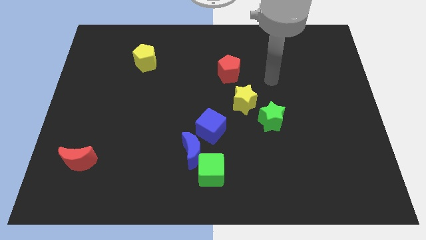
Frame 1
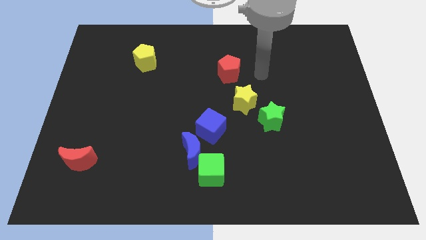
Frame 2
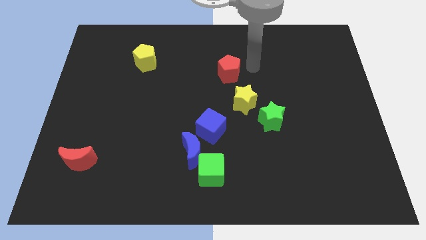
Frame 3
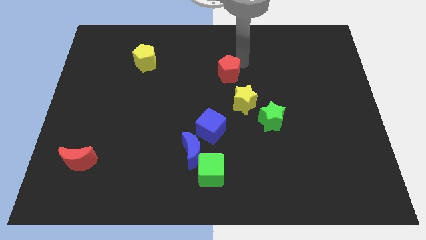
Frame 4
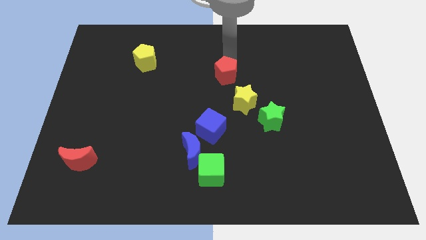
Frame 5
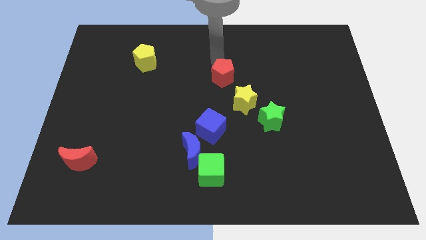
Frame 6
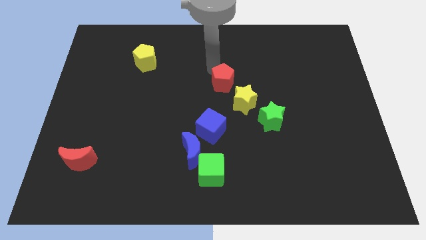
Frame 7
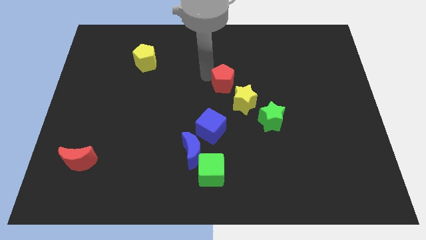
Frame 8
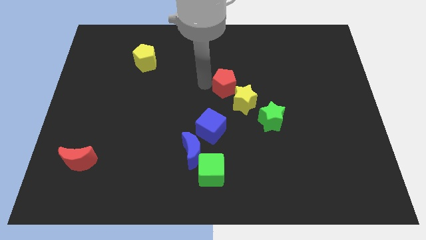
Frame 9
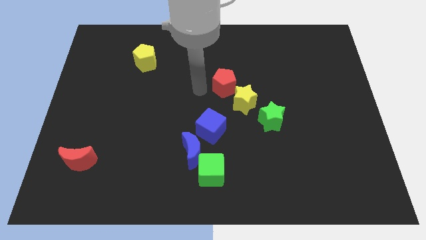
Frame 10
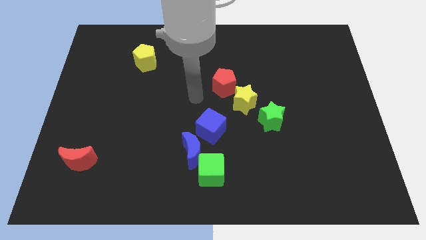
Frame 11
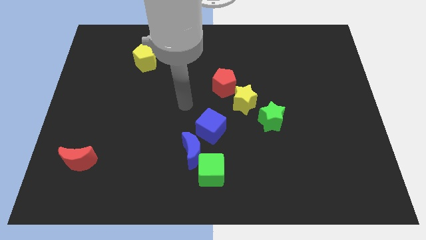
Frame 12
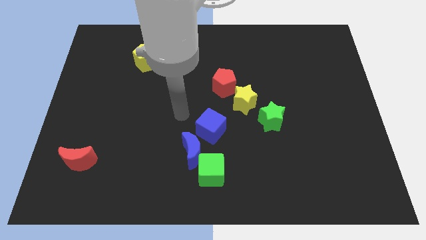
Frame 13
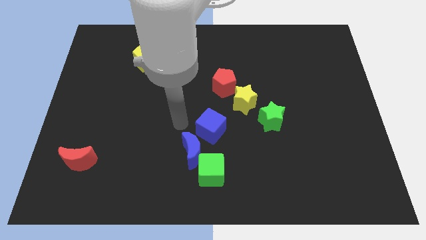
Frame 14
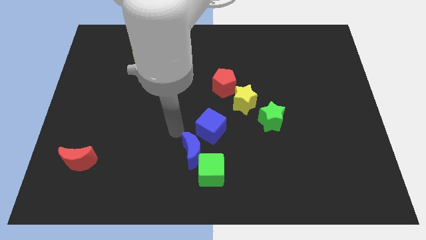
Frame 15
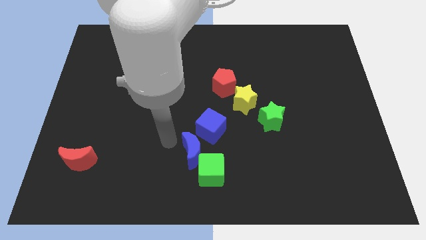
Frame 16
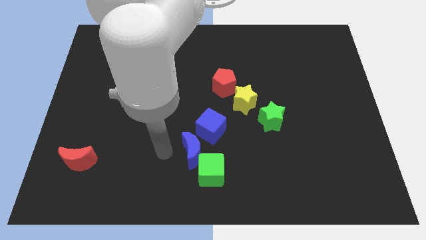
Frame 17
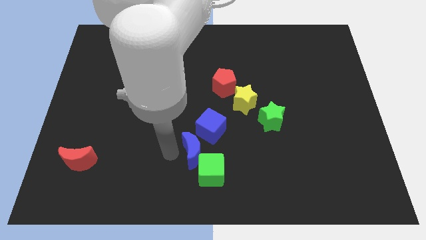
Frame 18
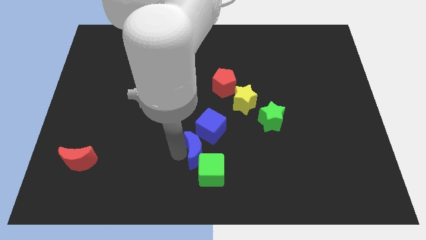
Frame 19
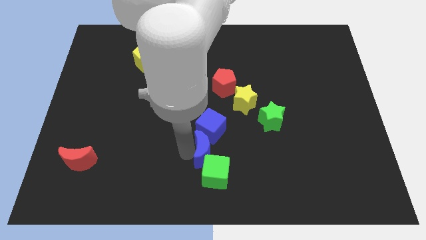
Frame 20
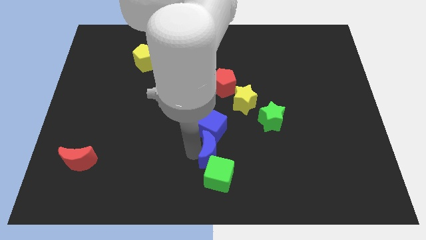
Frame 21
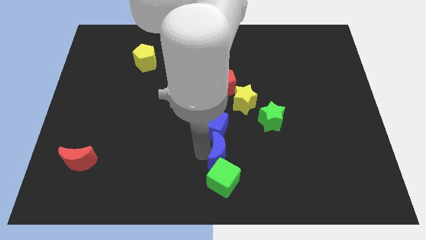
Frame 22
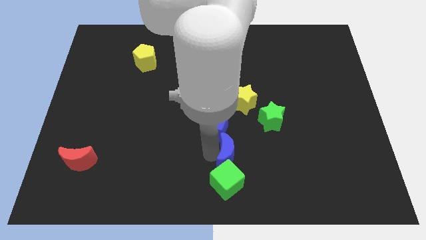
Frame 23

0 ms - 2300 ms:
move the blue moon right slightly

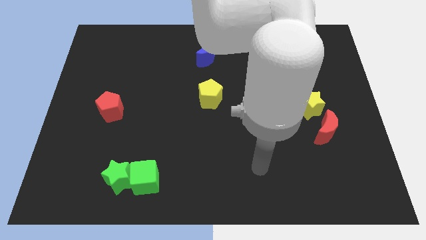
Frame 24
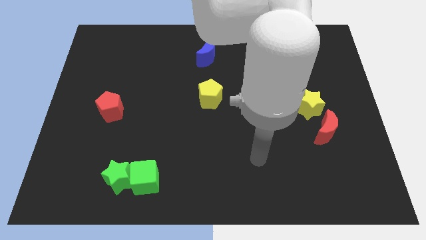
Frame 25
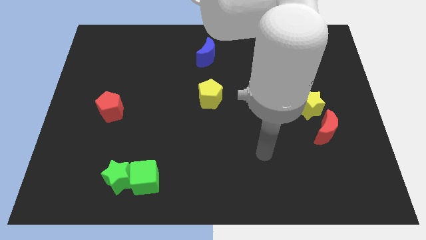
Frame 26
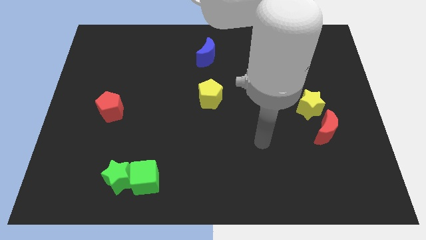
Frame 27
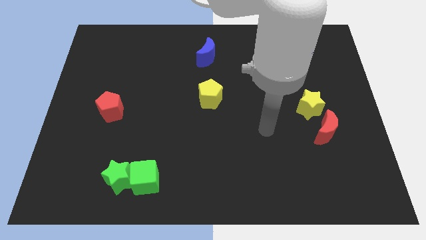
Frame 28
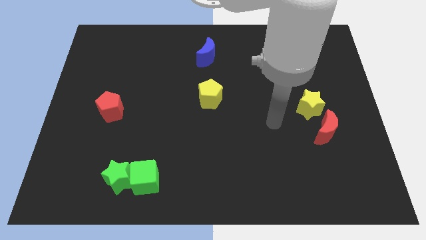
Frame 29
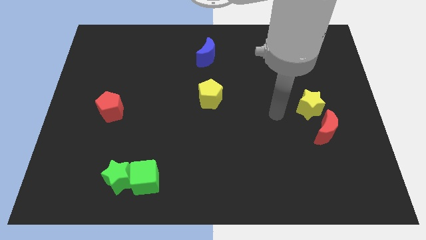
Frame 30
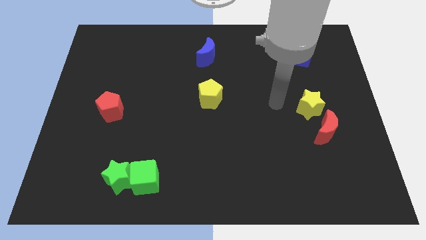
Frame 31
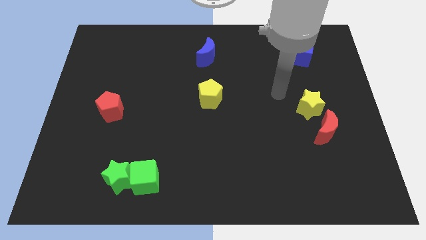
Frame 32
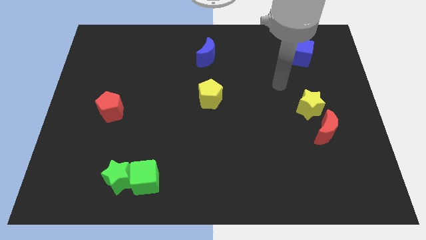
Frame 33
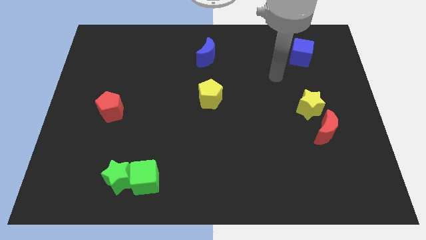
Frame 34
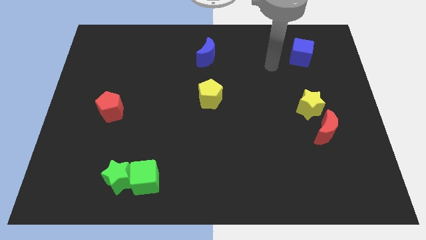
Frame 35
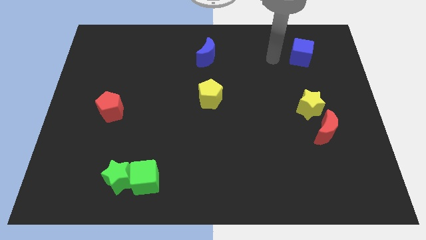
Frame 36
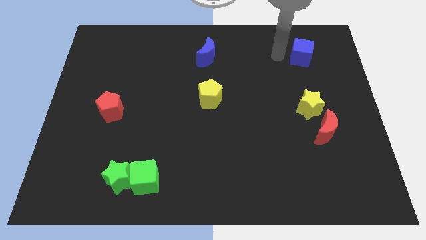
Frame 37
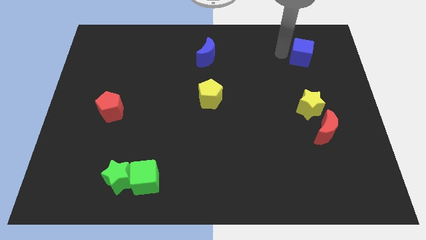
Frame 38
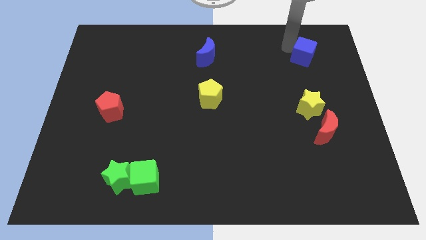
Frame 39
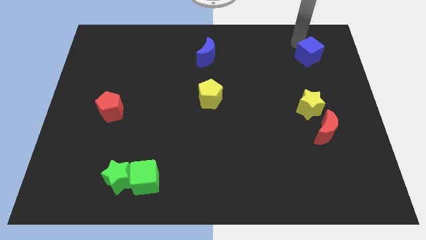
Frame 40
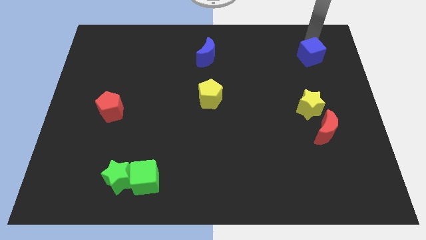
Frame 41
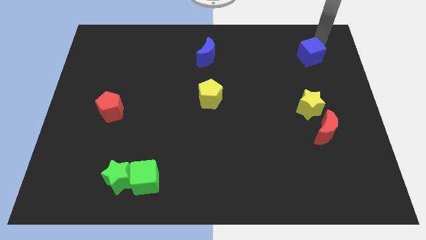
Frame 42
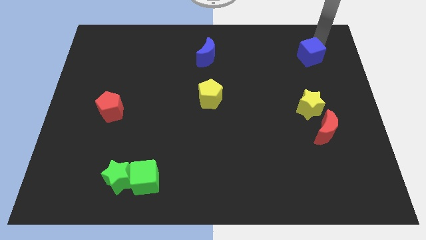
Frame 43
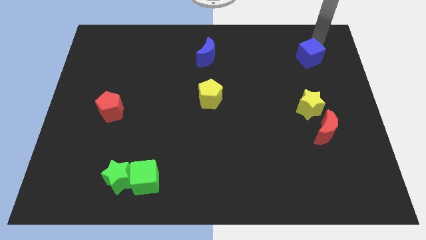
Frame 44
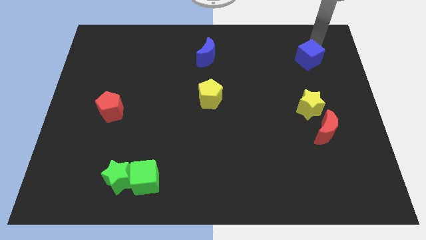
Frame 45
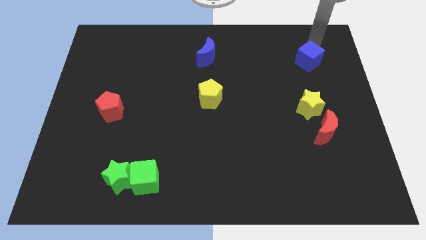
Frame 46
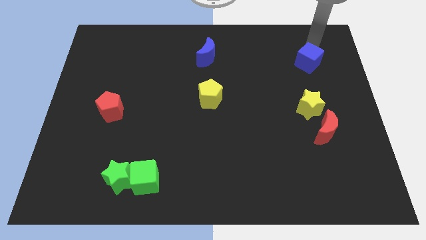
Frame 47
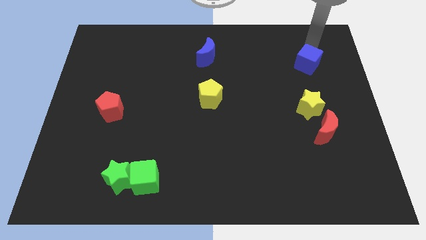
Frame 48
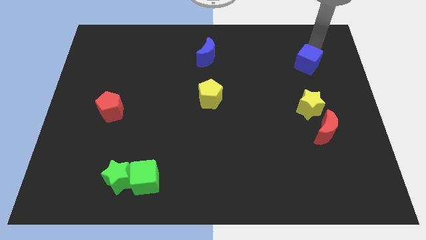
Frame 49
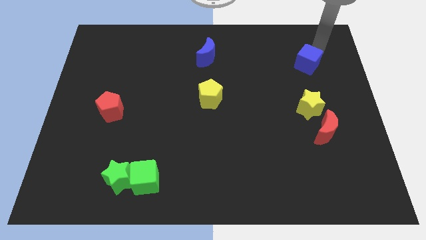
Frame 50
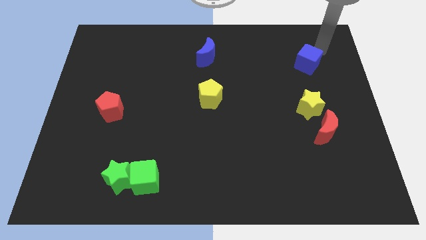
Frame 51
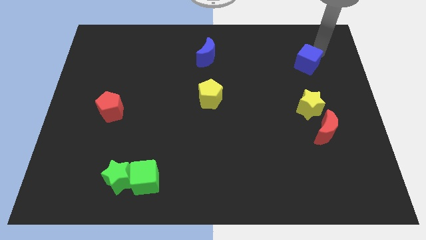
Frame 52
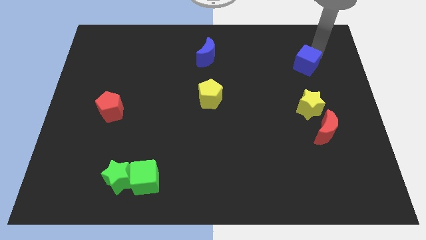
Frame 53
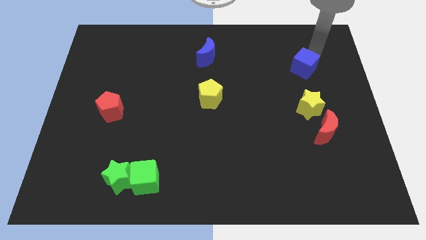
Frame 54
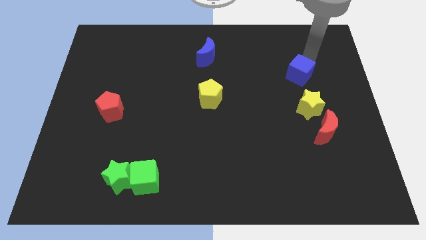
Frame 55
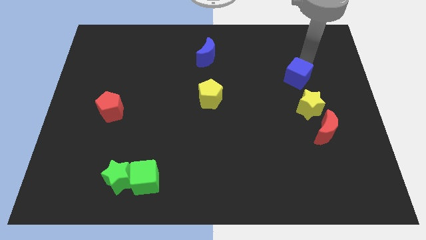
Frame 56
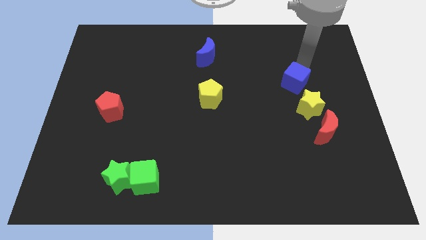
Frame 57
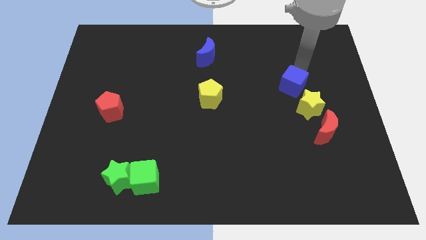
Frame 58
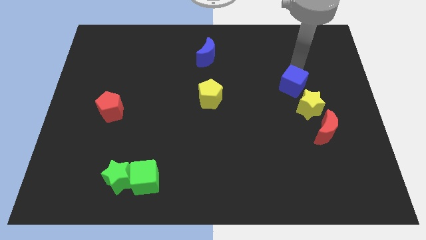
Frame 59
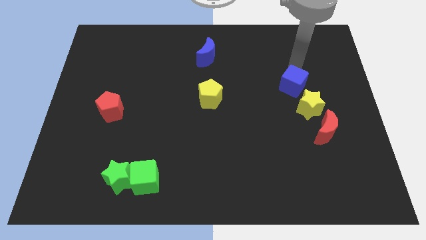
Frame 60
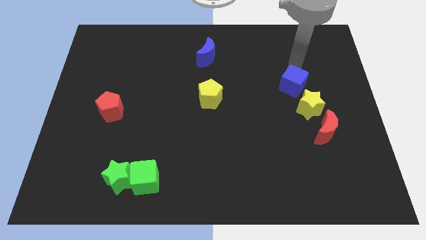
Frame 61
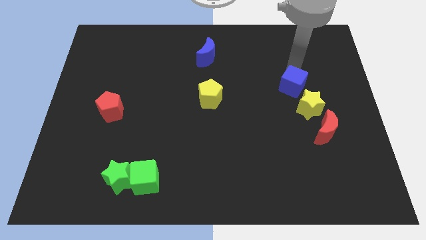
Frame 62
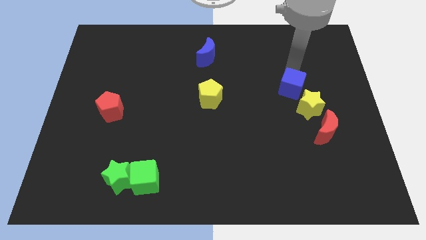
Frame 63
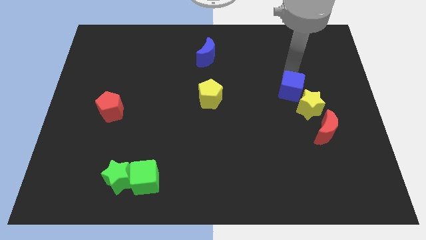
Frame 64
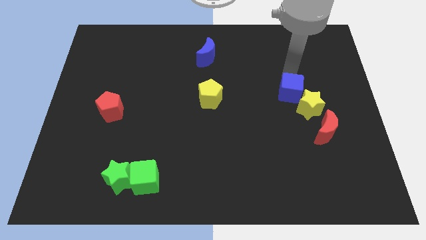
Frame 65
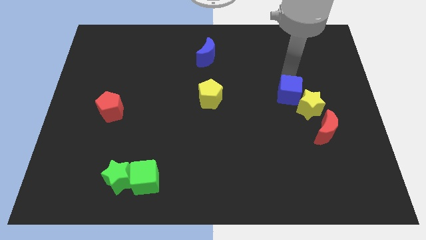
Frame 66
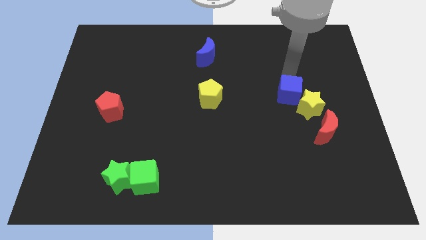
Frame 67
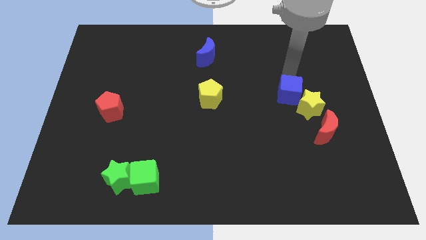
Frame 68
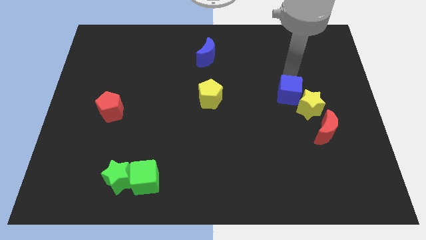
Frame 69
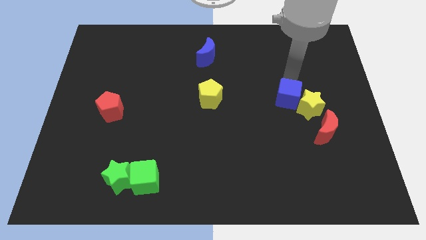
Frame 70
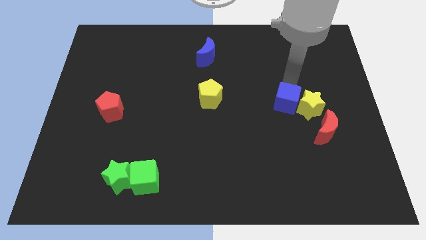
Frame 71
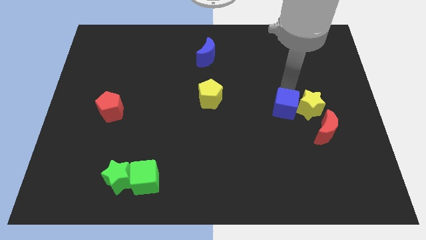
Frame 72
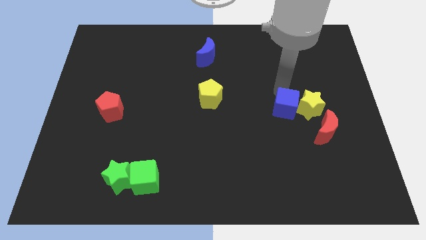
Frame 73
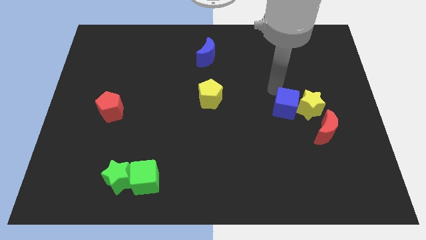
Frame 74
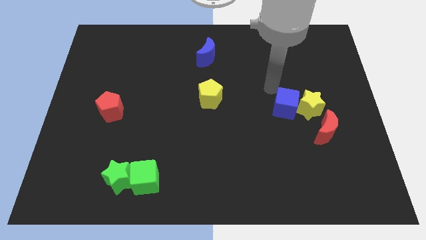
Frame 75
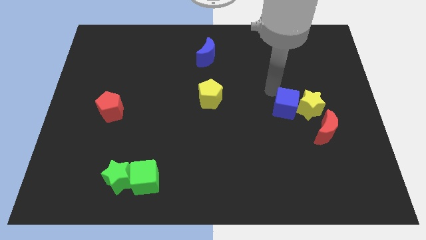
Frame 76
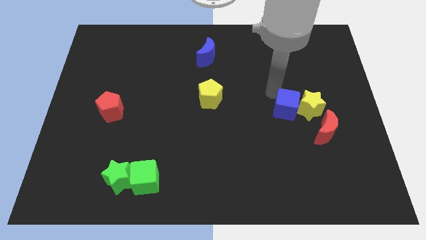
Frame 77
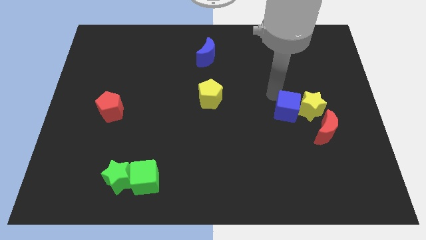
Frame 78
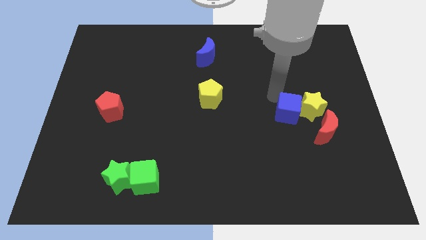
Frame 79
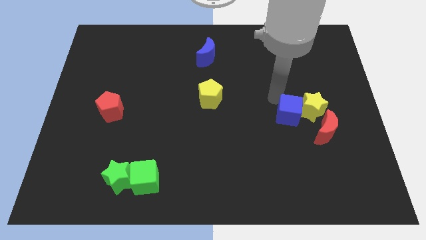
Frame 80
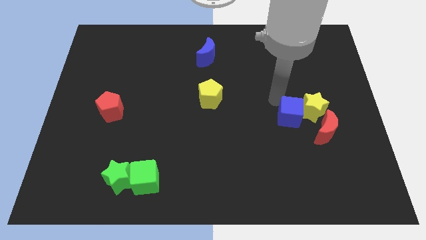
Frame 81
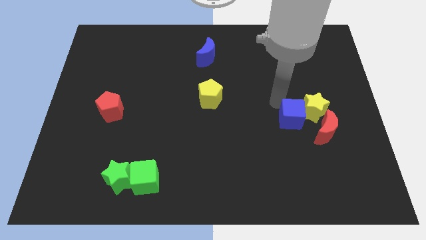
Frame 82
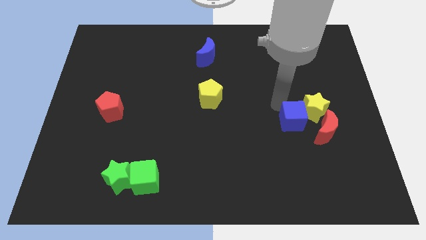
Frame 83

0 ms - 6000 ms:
slide the blue cube down

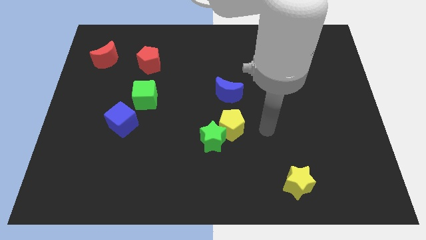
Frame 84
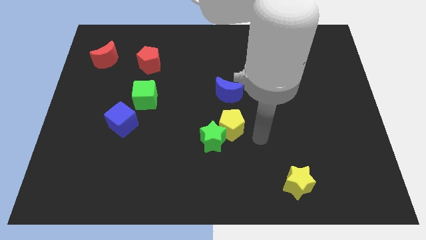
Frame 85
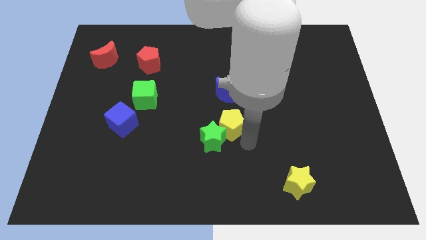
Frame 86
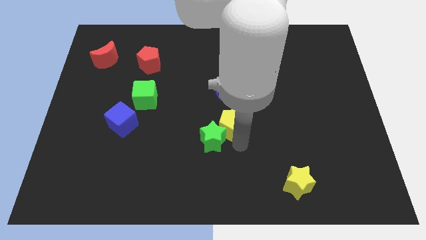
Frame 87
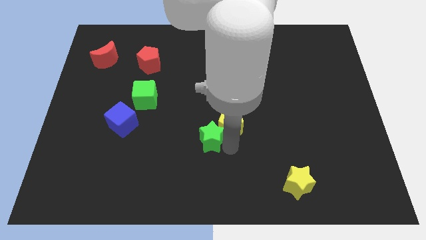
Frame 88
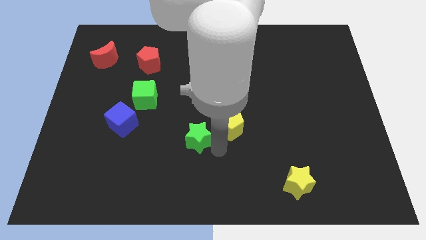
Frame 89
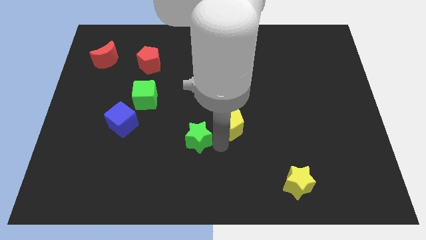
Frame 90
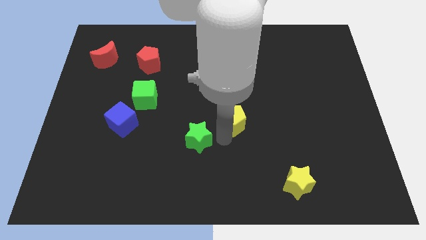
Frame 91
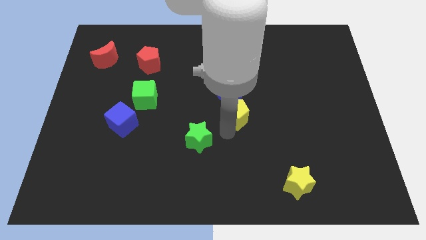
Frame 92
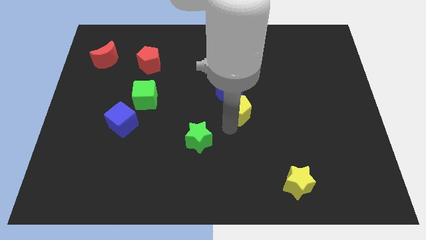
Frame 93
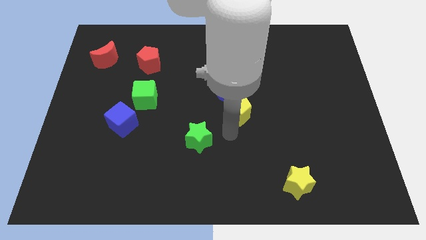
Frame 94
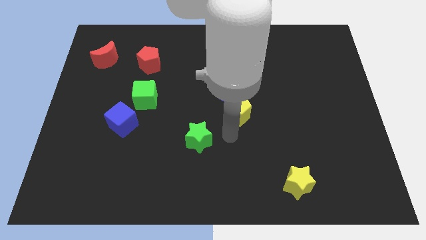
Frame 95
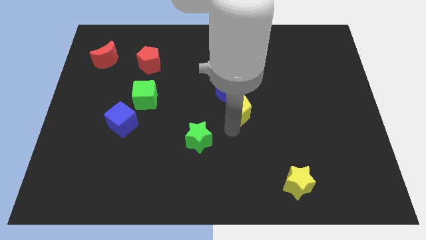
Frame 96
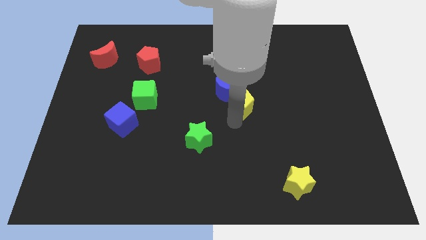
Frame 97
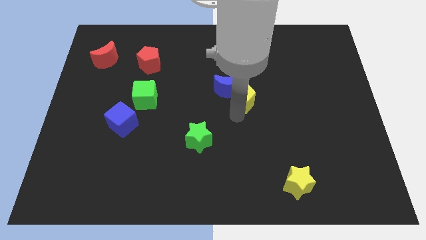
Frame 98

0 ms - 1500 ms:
slightly move the yellow pentagon upwards
